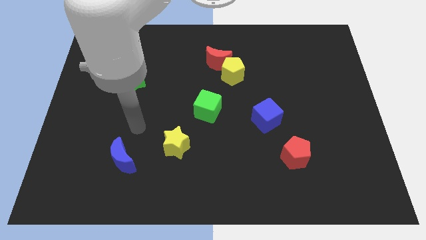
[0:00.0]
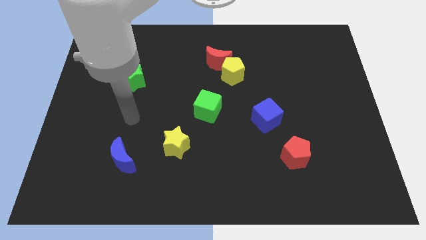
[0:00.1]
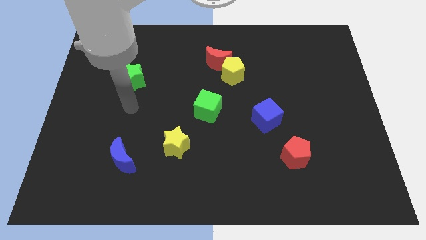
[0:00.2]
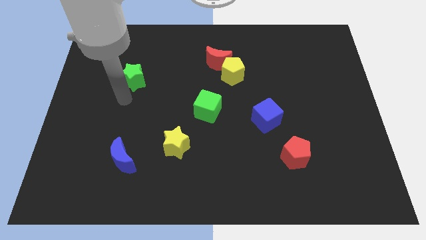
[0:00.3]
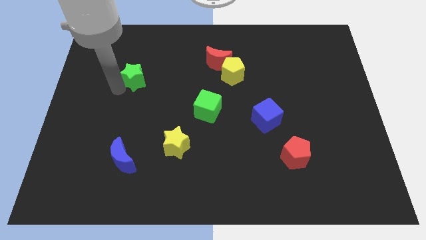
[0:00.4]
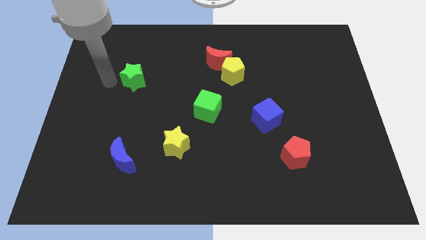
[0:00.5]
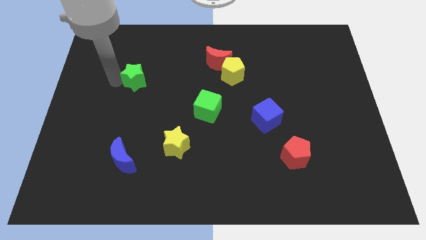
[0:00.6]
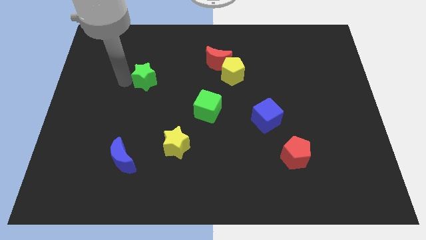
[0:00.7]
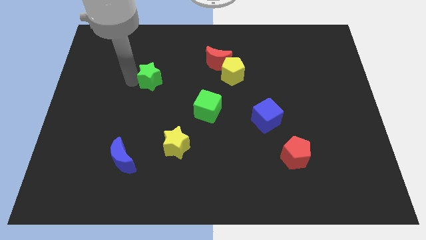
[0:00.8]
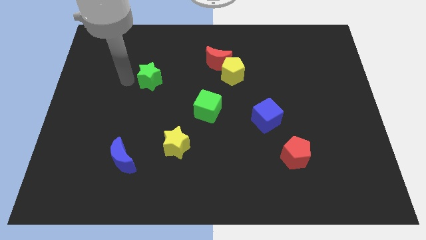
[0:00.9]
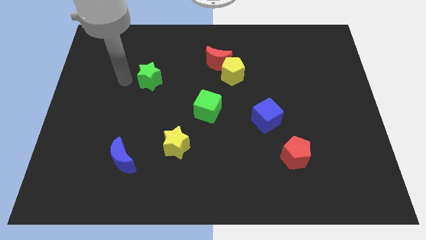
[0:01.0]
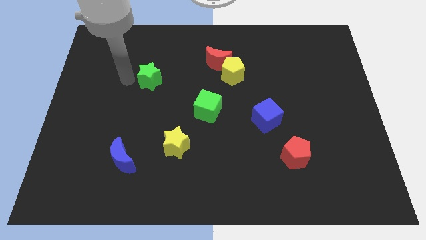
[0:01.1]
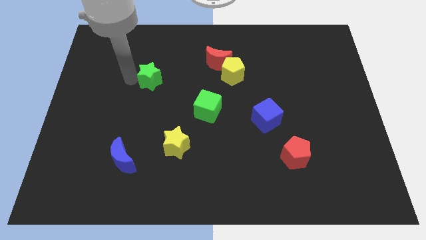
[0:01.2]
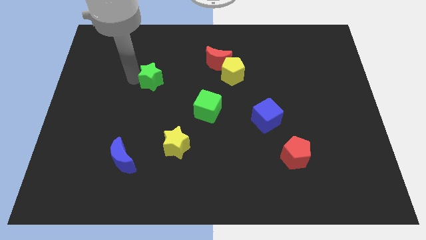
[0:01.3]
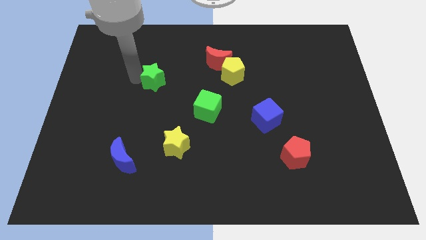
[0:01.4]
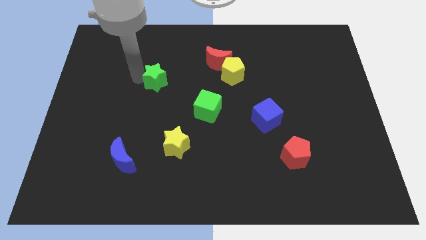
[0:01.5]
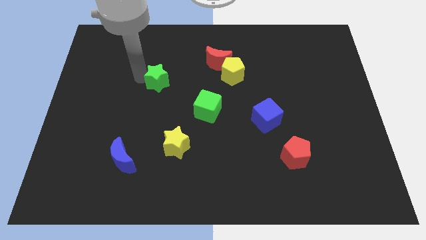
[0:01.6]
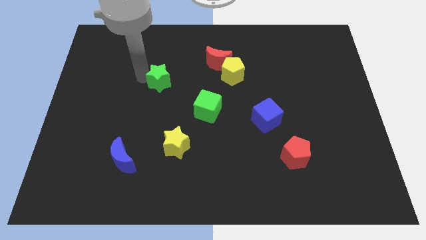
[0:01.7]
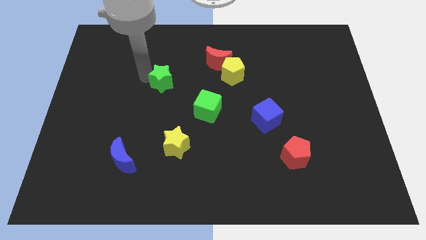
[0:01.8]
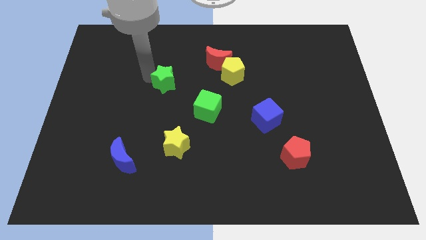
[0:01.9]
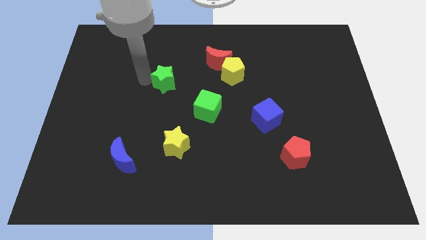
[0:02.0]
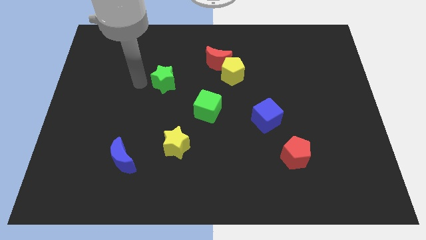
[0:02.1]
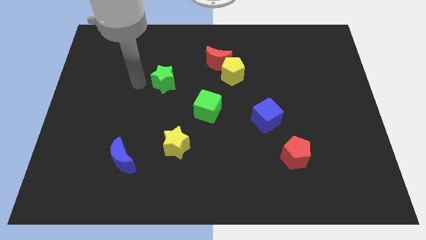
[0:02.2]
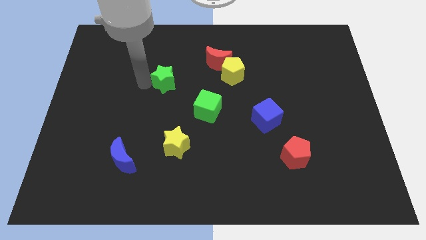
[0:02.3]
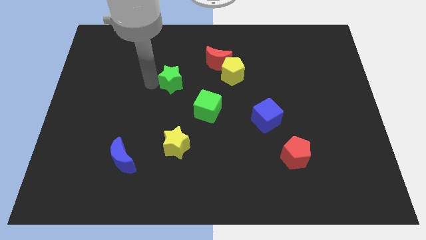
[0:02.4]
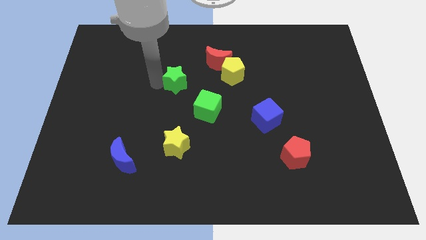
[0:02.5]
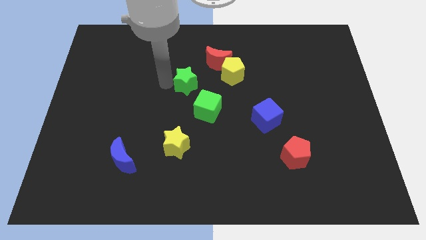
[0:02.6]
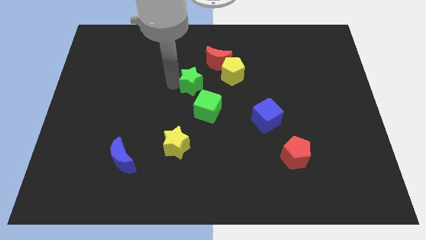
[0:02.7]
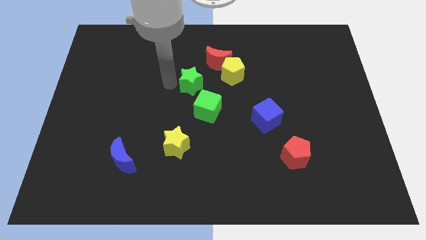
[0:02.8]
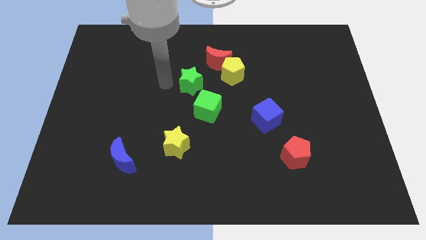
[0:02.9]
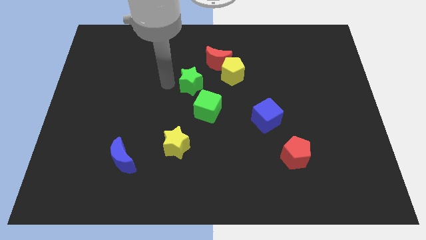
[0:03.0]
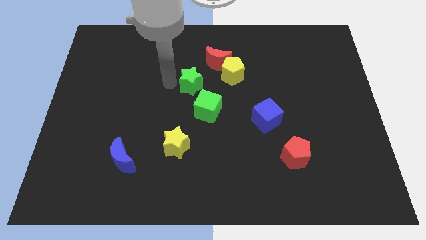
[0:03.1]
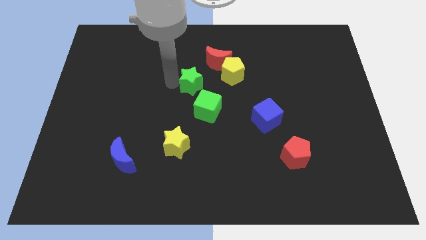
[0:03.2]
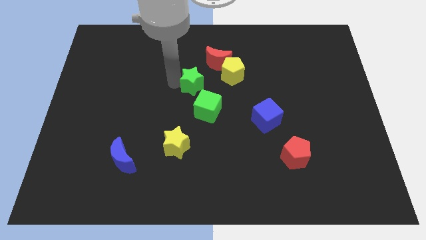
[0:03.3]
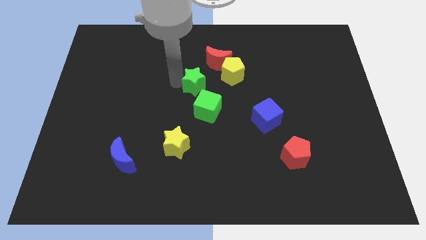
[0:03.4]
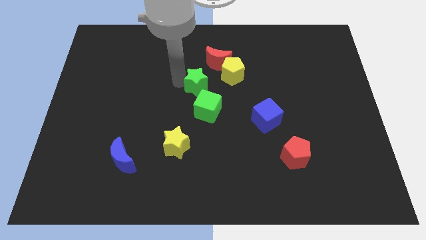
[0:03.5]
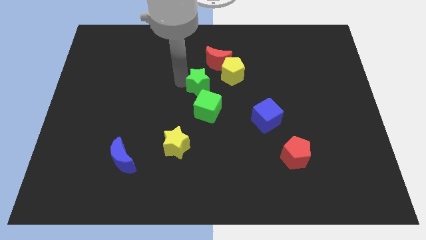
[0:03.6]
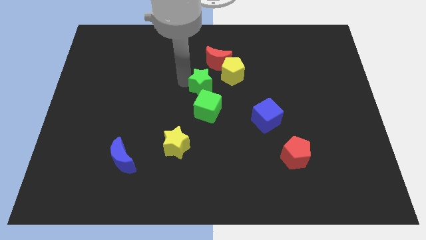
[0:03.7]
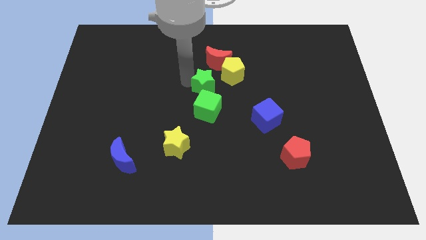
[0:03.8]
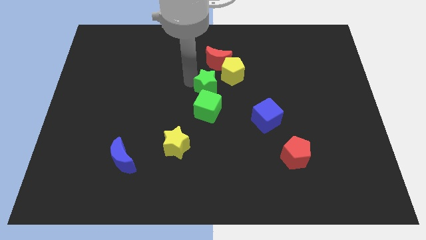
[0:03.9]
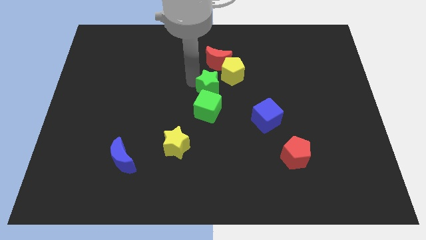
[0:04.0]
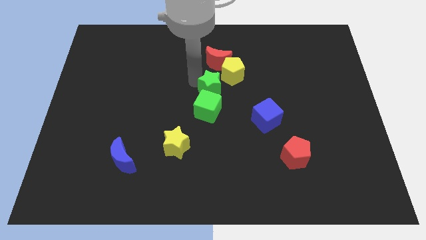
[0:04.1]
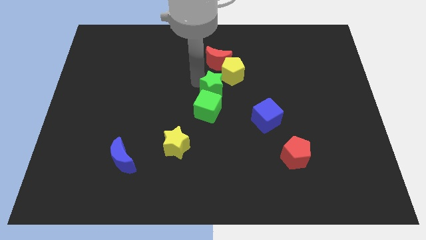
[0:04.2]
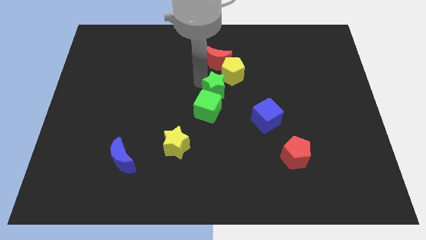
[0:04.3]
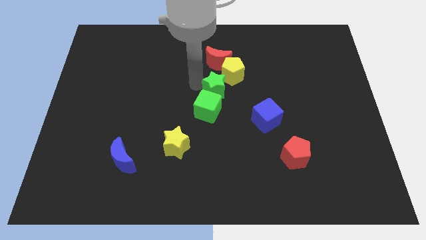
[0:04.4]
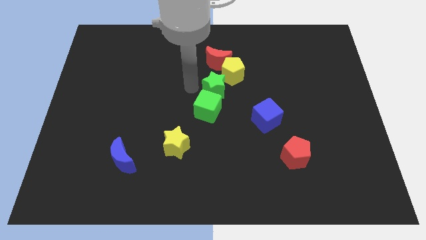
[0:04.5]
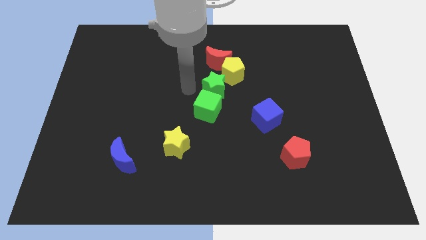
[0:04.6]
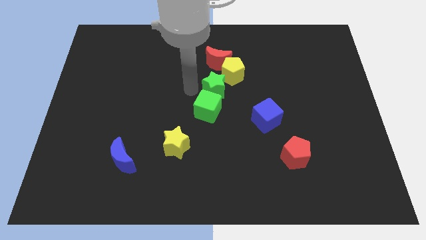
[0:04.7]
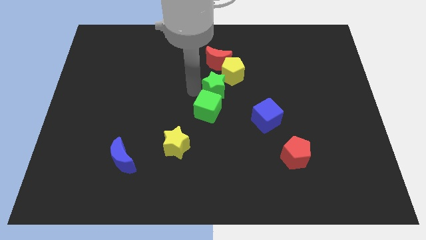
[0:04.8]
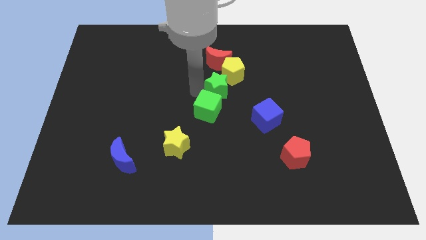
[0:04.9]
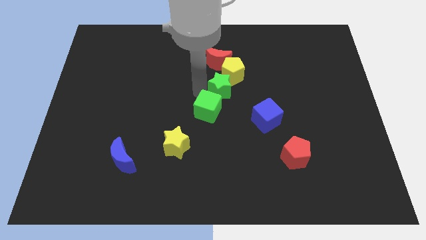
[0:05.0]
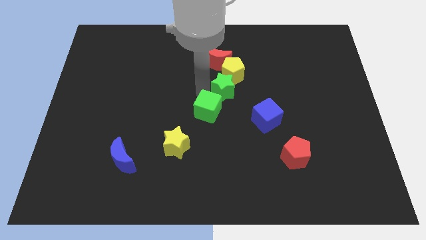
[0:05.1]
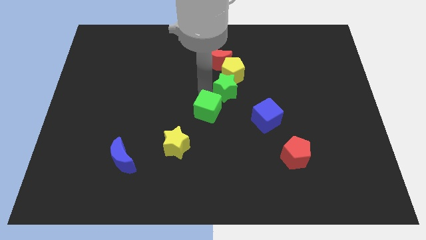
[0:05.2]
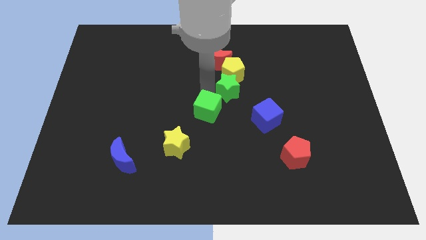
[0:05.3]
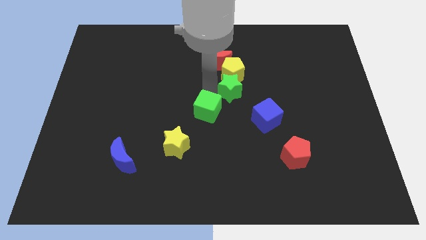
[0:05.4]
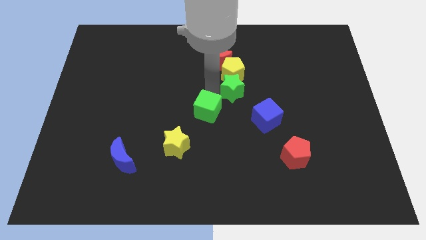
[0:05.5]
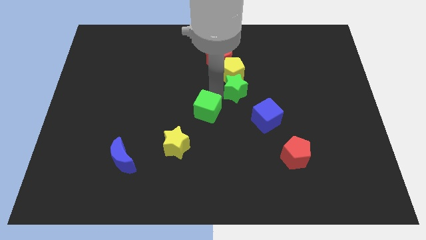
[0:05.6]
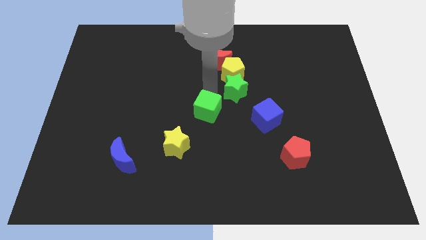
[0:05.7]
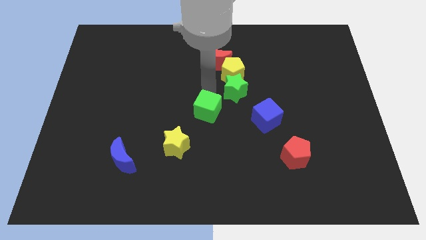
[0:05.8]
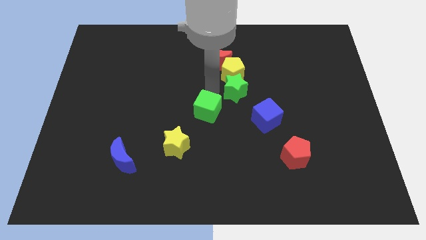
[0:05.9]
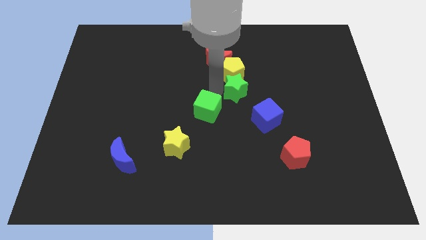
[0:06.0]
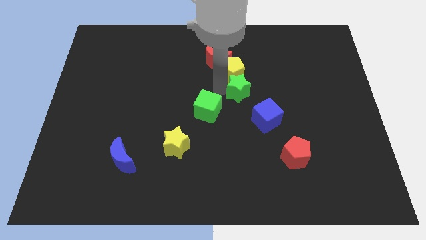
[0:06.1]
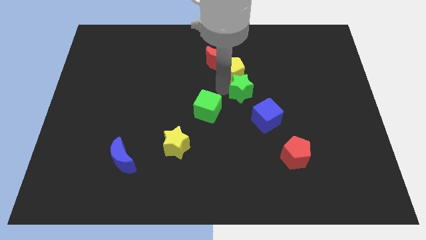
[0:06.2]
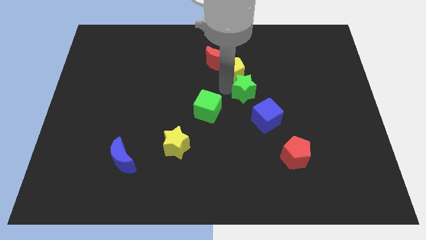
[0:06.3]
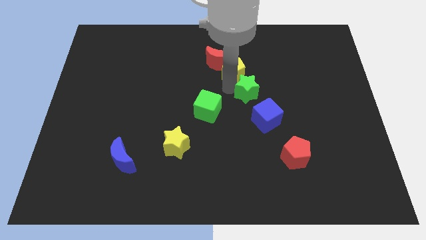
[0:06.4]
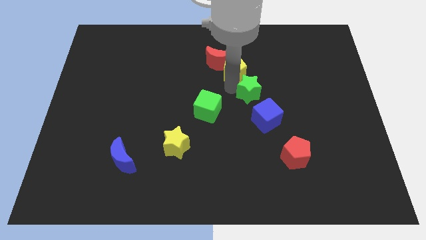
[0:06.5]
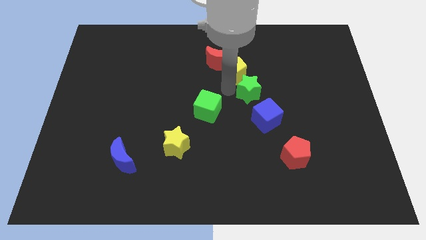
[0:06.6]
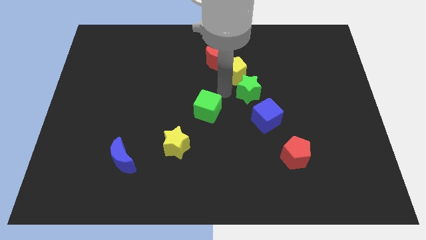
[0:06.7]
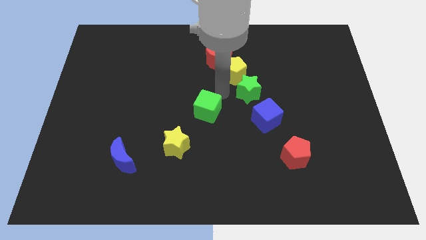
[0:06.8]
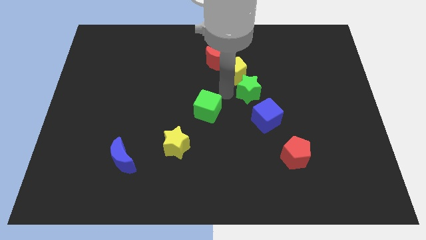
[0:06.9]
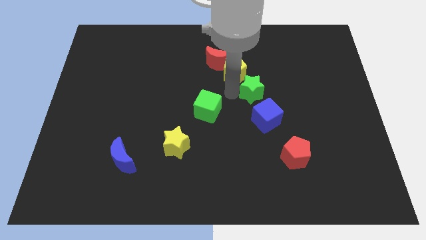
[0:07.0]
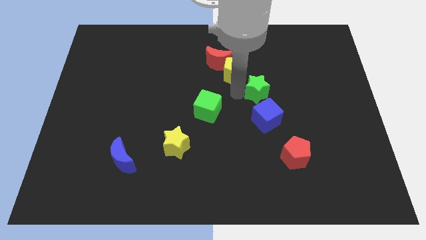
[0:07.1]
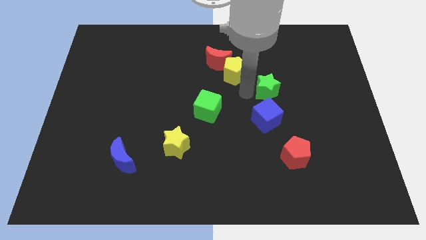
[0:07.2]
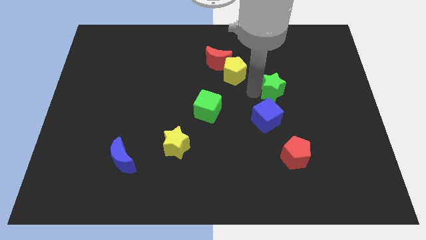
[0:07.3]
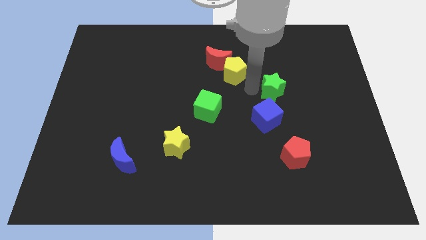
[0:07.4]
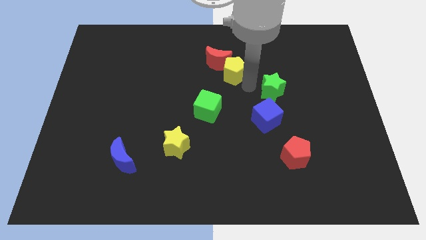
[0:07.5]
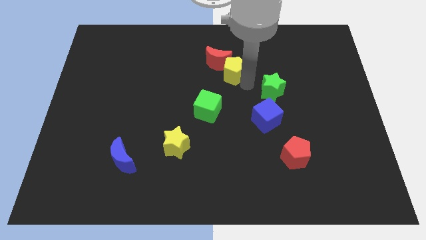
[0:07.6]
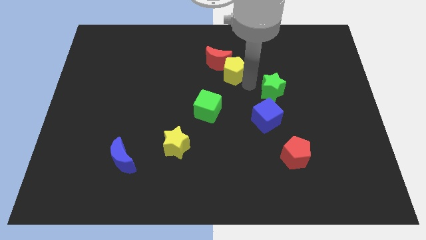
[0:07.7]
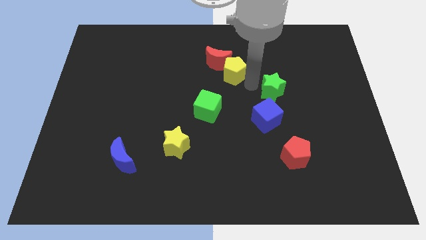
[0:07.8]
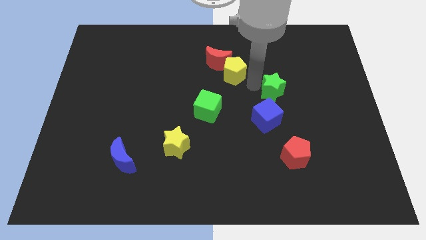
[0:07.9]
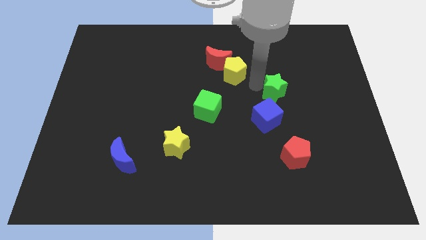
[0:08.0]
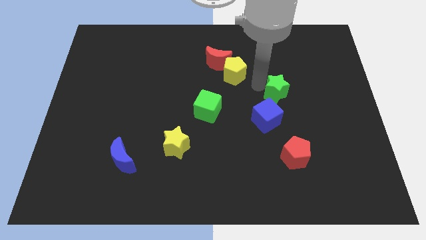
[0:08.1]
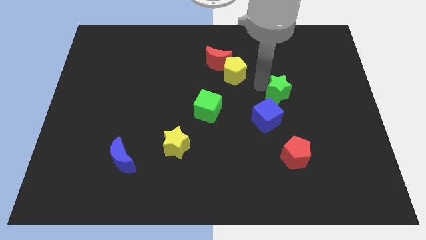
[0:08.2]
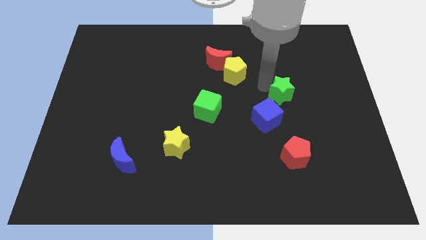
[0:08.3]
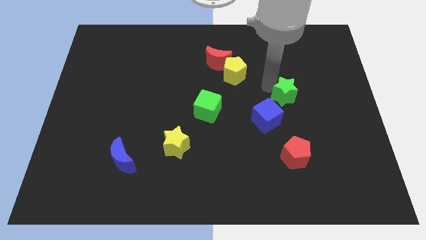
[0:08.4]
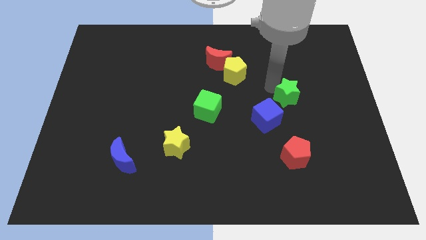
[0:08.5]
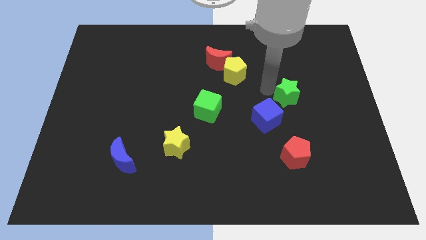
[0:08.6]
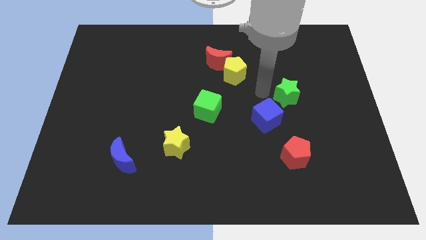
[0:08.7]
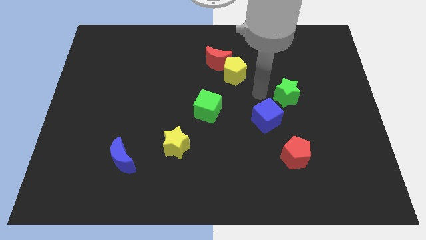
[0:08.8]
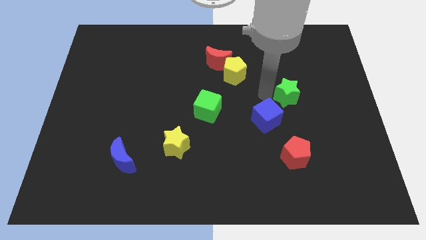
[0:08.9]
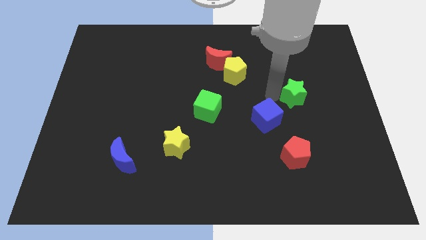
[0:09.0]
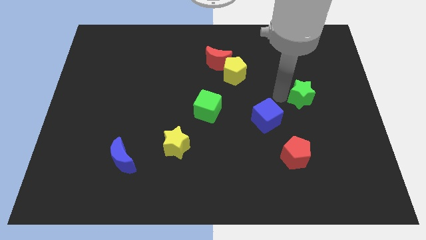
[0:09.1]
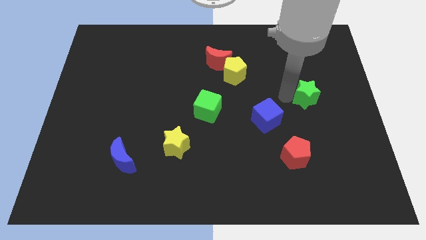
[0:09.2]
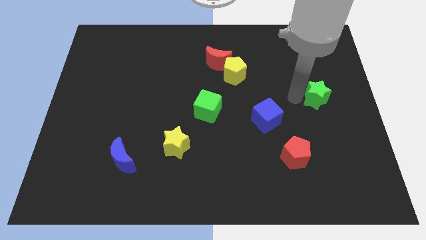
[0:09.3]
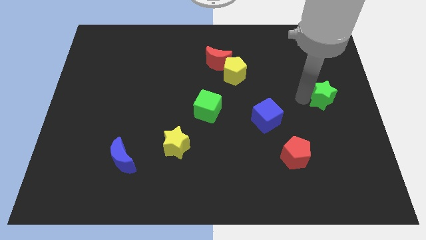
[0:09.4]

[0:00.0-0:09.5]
push the green star to the right side
